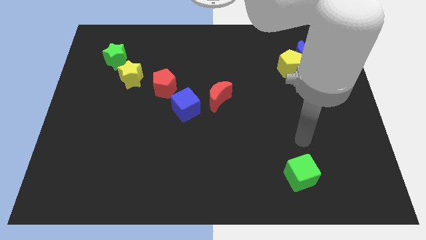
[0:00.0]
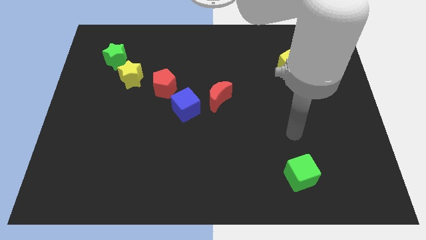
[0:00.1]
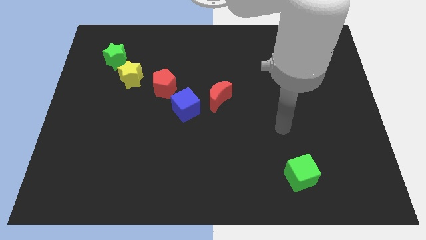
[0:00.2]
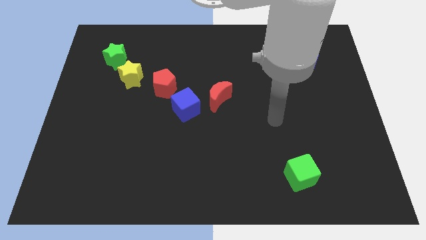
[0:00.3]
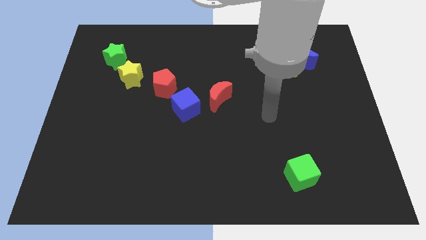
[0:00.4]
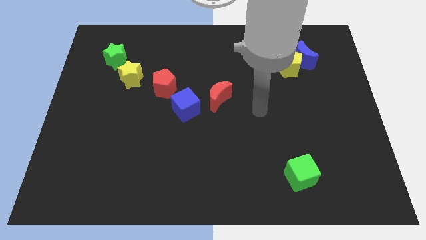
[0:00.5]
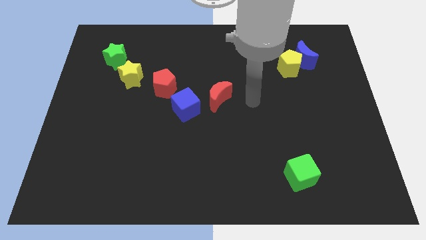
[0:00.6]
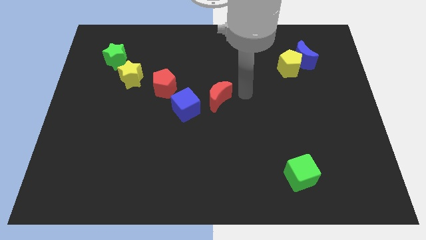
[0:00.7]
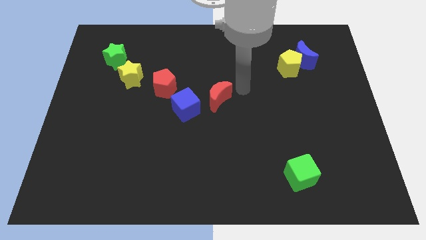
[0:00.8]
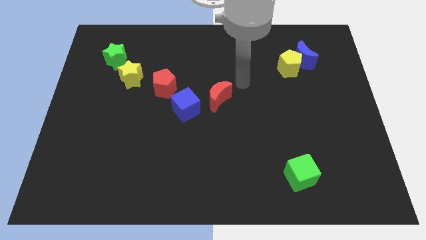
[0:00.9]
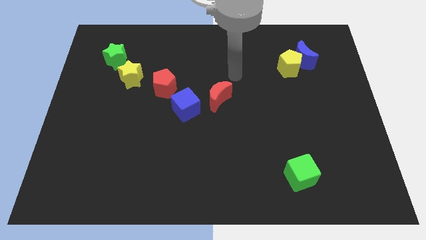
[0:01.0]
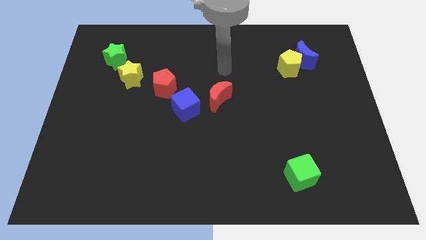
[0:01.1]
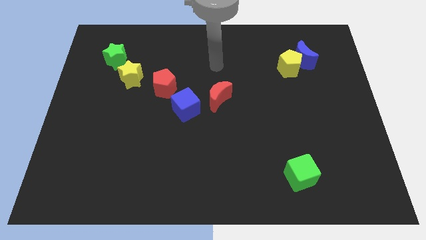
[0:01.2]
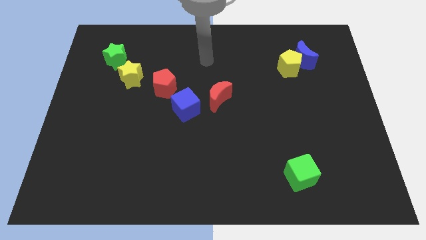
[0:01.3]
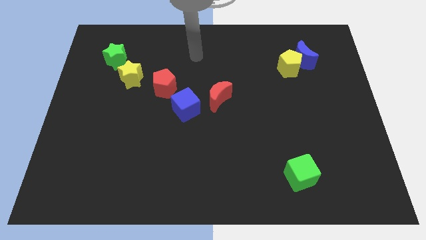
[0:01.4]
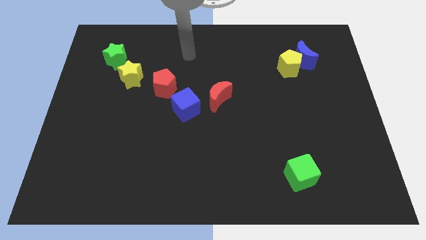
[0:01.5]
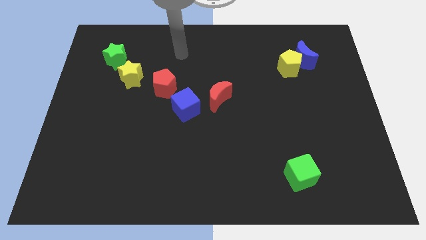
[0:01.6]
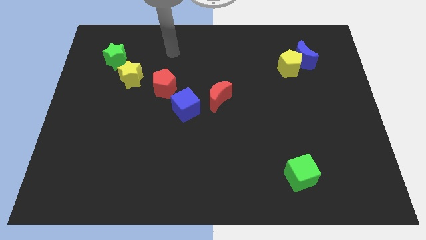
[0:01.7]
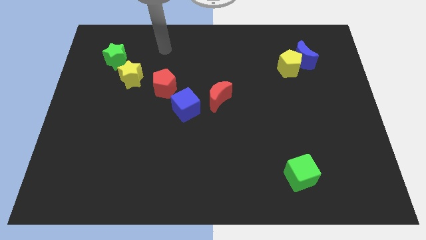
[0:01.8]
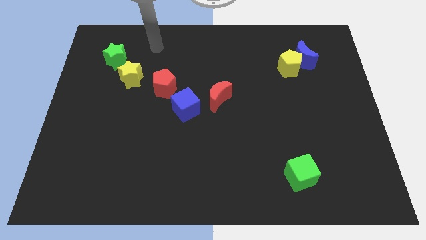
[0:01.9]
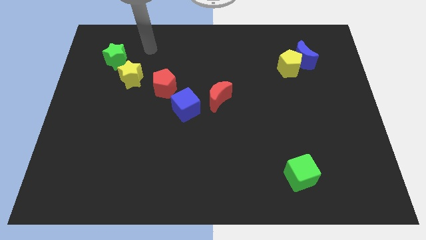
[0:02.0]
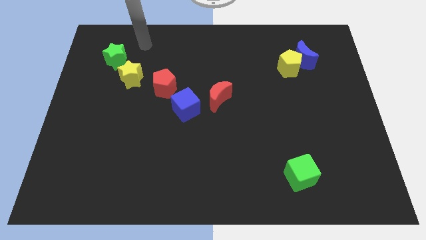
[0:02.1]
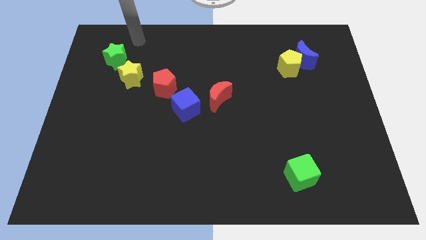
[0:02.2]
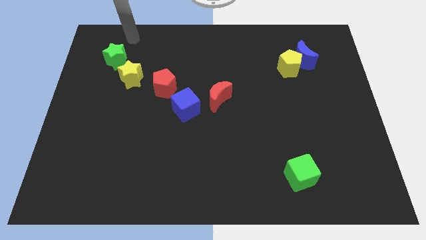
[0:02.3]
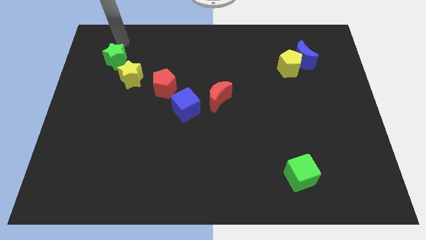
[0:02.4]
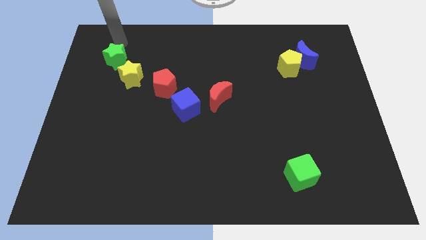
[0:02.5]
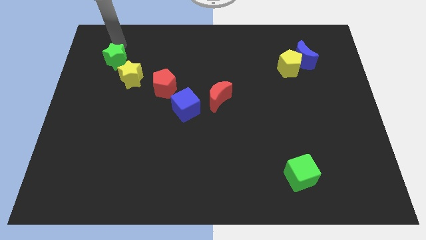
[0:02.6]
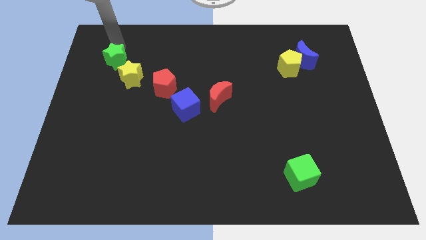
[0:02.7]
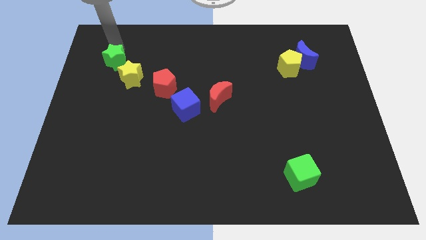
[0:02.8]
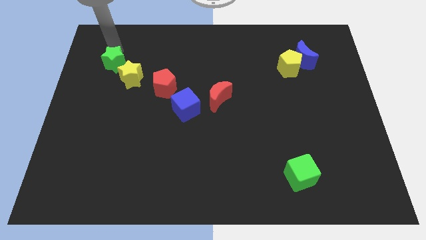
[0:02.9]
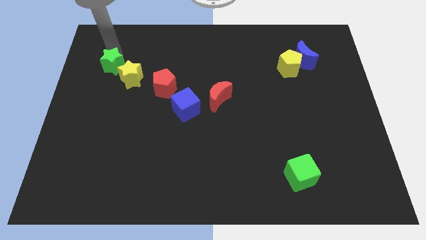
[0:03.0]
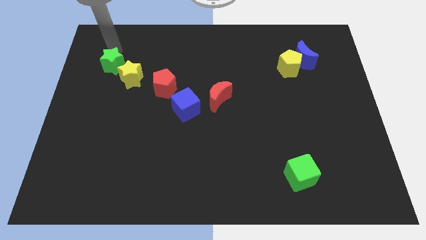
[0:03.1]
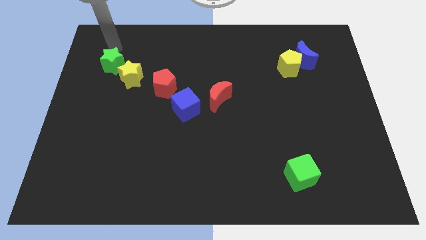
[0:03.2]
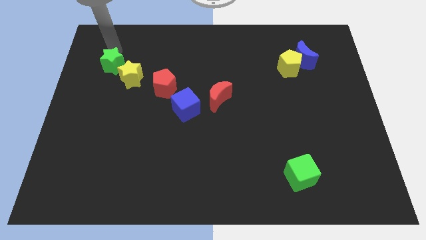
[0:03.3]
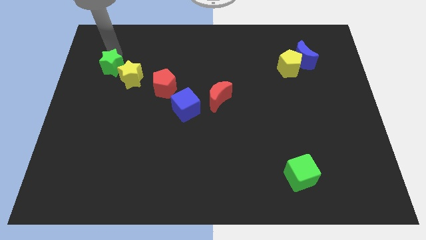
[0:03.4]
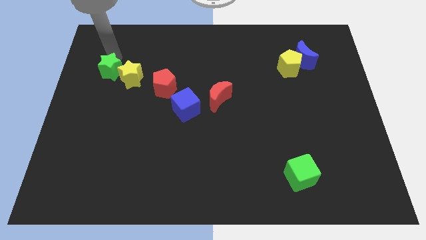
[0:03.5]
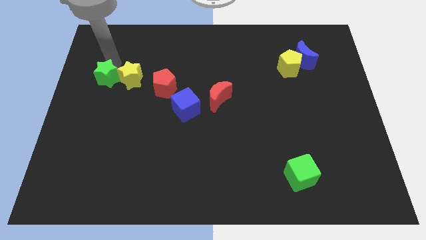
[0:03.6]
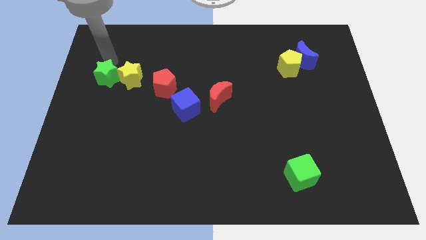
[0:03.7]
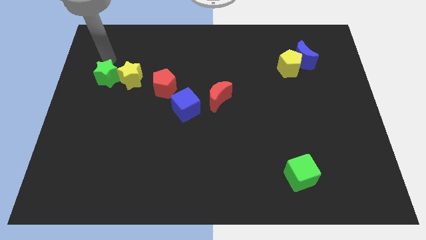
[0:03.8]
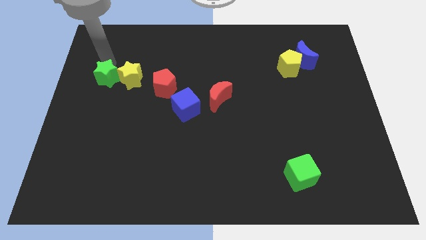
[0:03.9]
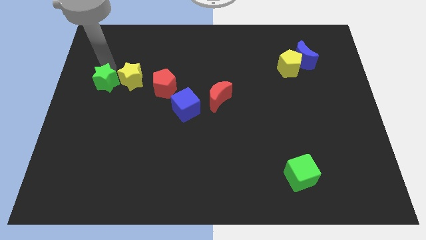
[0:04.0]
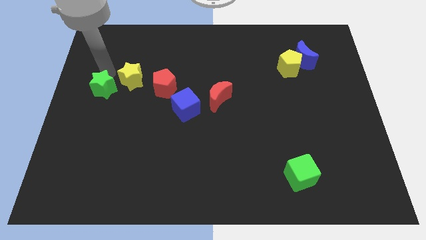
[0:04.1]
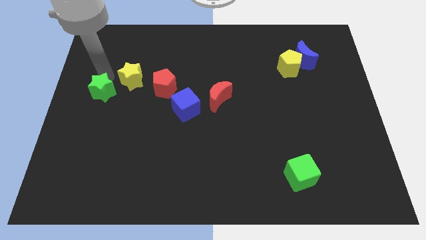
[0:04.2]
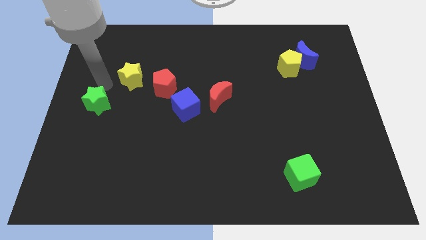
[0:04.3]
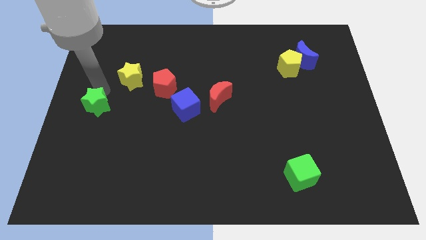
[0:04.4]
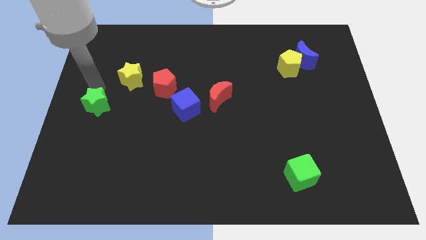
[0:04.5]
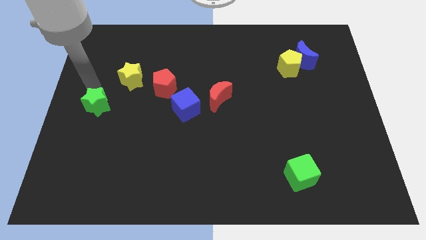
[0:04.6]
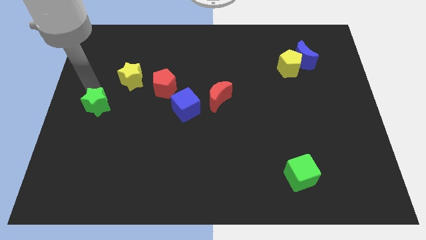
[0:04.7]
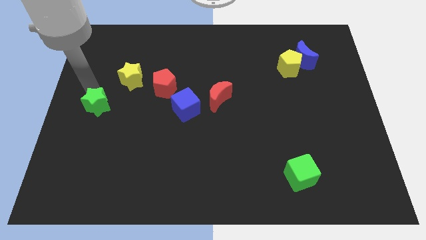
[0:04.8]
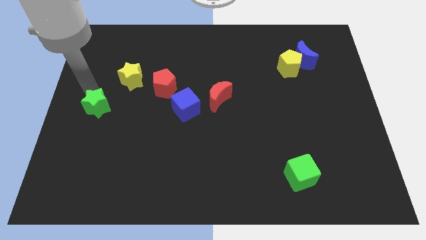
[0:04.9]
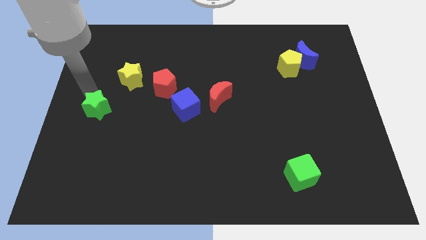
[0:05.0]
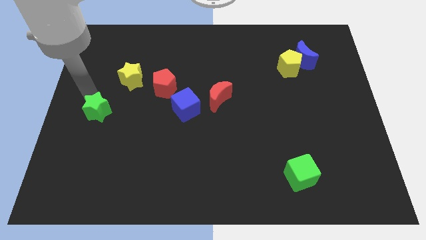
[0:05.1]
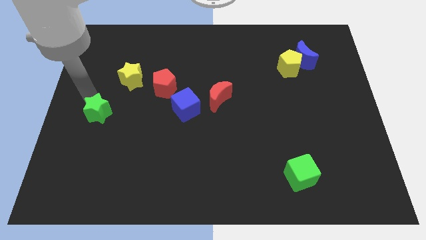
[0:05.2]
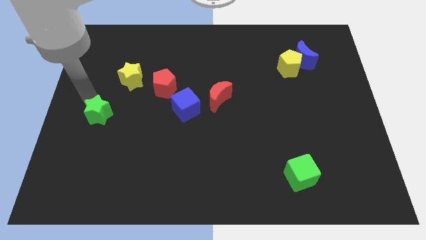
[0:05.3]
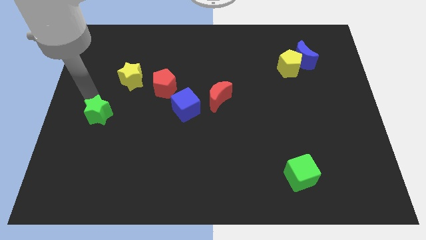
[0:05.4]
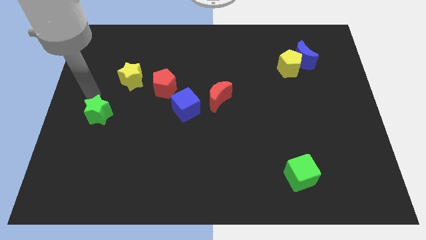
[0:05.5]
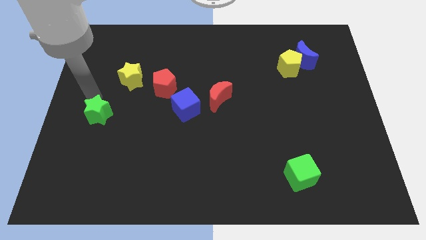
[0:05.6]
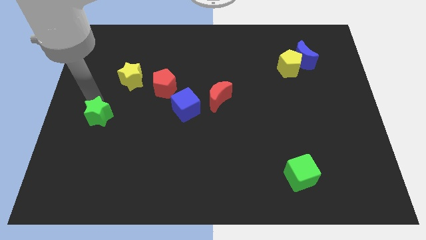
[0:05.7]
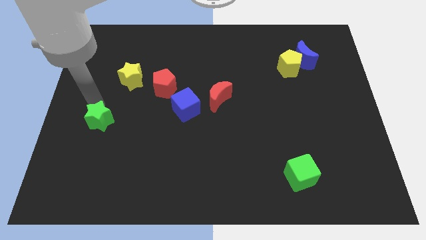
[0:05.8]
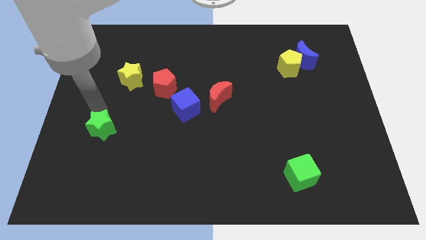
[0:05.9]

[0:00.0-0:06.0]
push the green star downwards

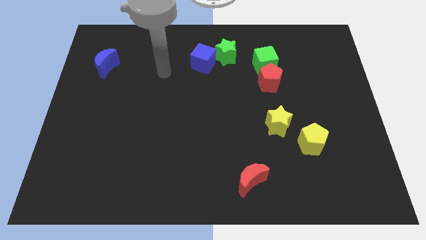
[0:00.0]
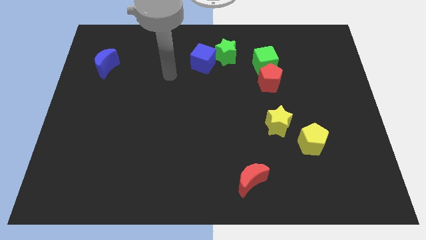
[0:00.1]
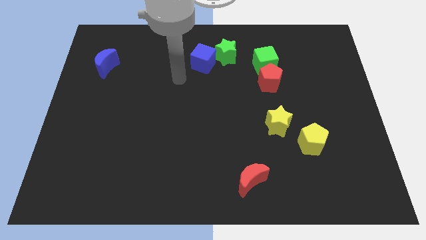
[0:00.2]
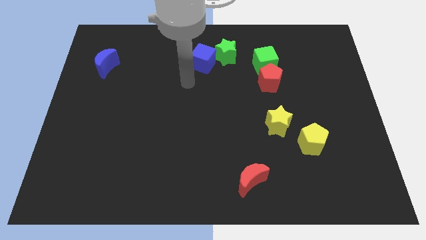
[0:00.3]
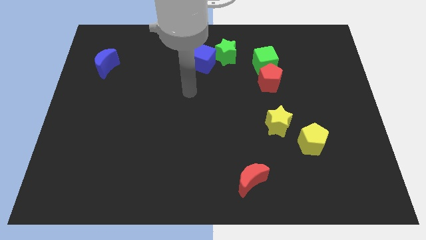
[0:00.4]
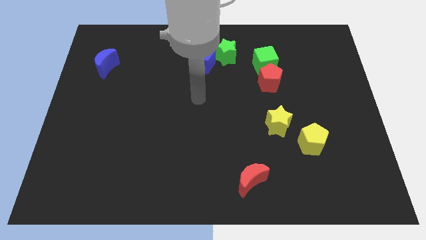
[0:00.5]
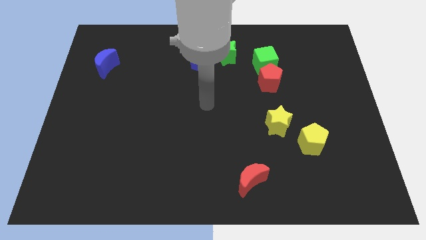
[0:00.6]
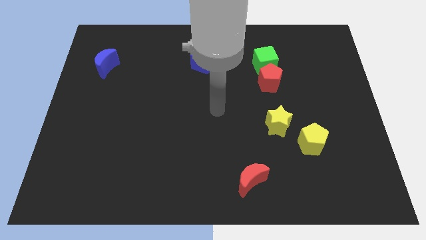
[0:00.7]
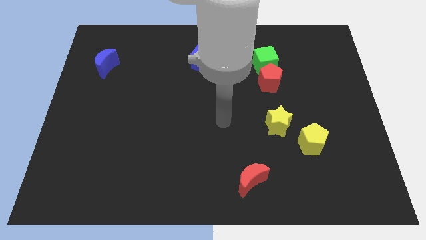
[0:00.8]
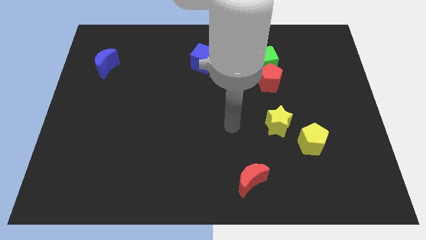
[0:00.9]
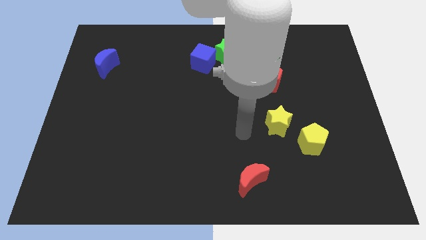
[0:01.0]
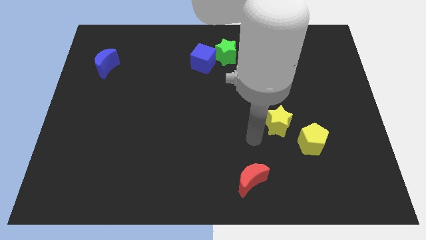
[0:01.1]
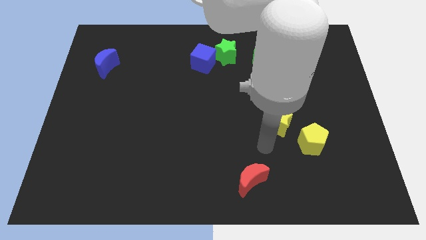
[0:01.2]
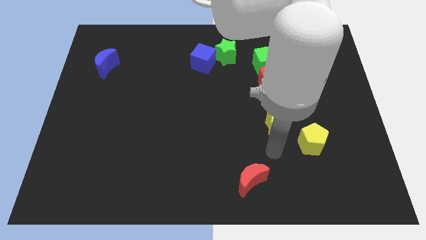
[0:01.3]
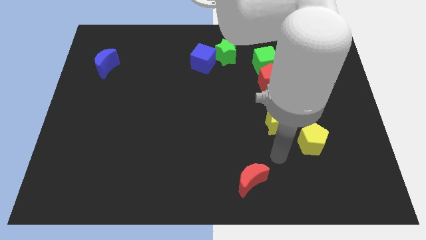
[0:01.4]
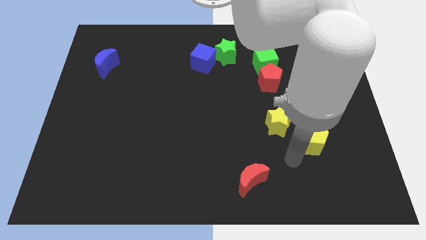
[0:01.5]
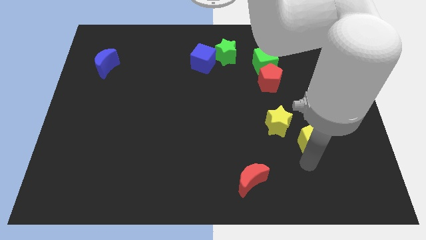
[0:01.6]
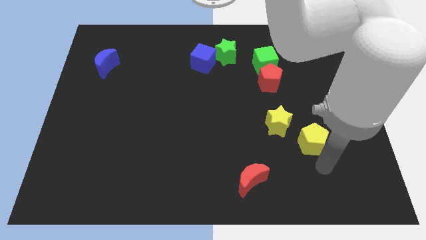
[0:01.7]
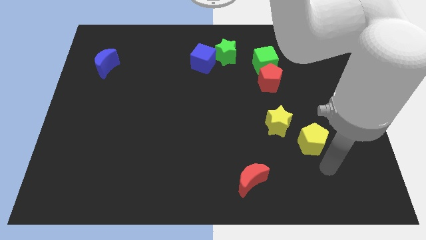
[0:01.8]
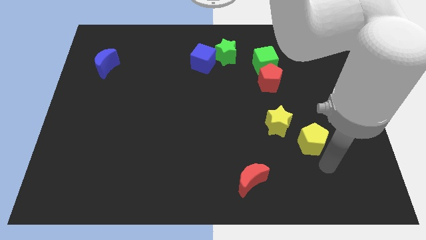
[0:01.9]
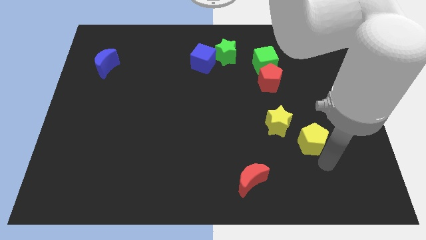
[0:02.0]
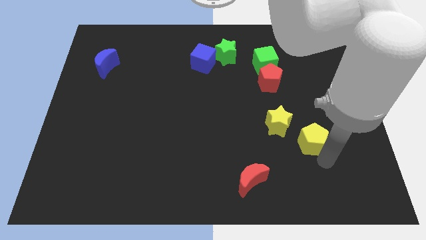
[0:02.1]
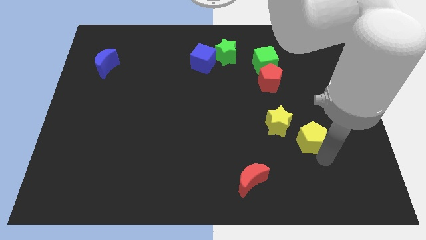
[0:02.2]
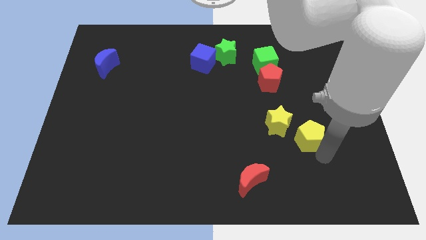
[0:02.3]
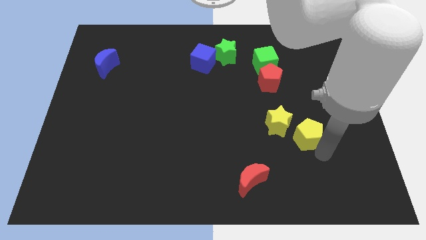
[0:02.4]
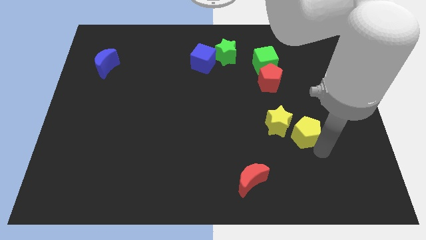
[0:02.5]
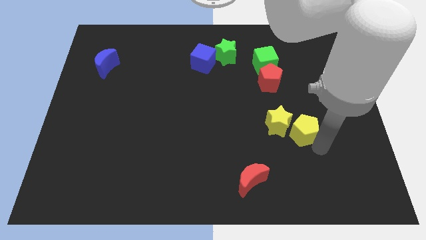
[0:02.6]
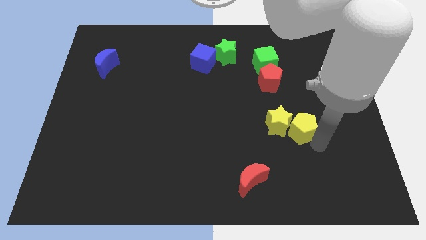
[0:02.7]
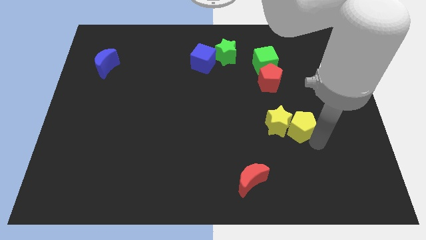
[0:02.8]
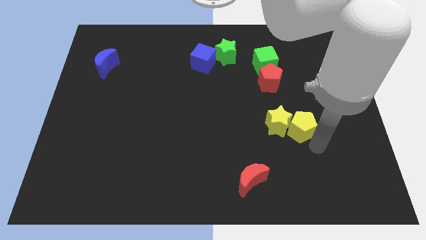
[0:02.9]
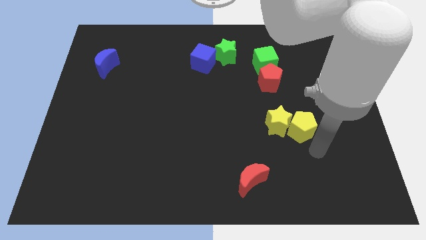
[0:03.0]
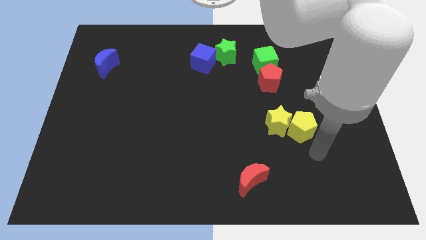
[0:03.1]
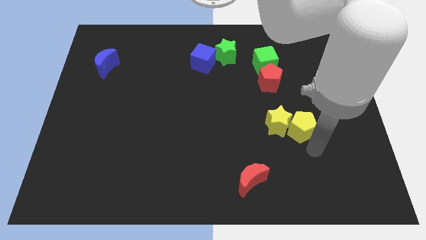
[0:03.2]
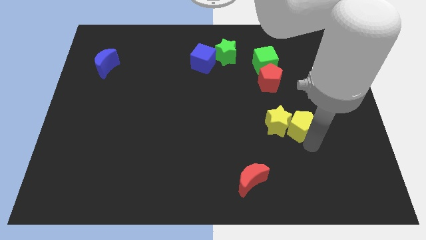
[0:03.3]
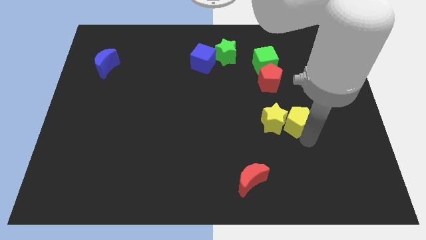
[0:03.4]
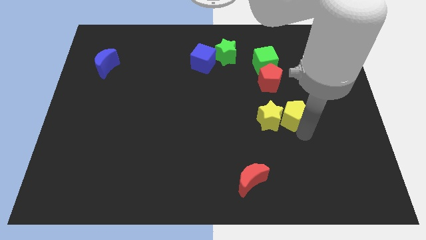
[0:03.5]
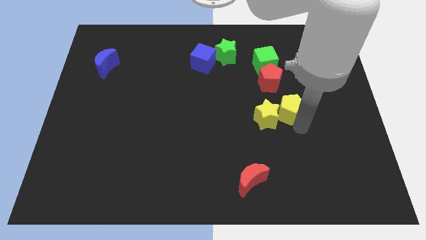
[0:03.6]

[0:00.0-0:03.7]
slide the yellow pentagon up and then left a little bit
